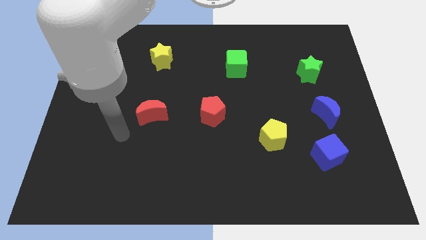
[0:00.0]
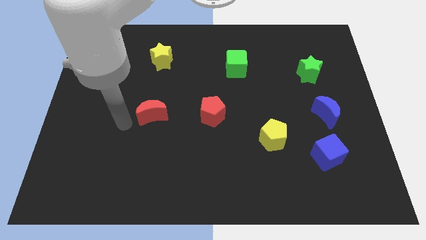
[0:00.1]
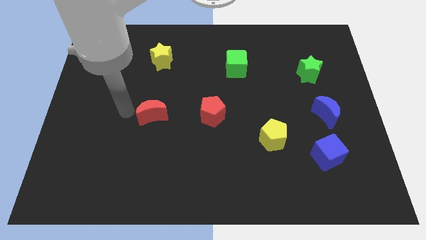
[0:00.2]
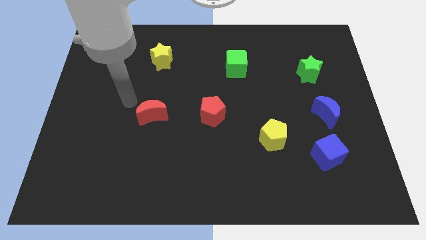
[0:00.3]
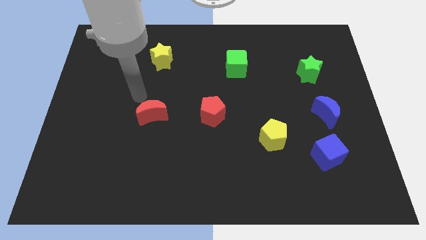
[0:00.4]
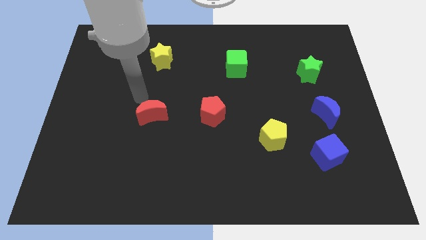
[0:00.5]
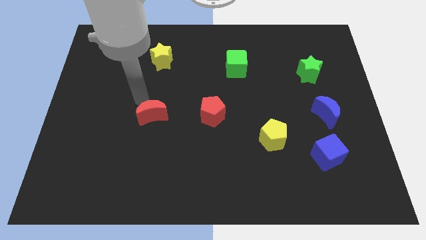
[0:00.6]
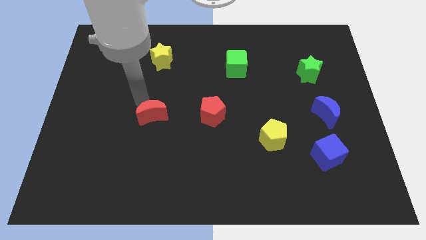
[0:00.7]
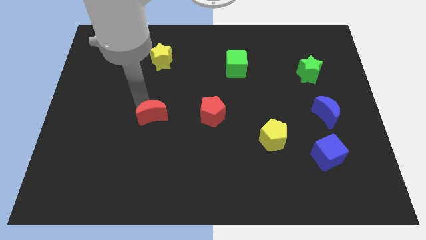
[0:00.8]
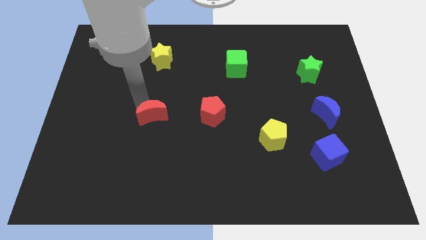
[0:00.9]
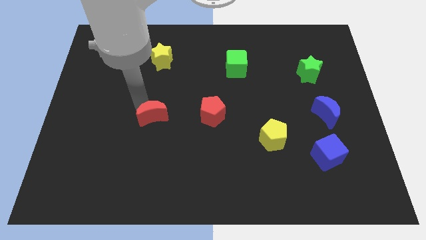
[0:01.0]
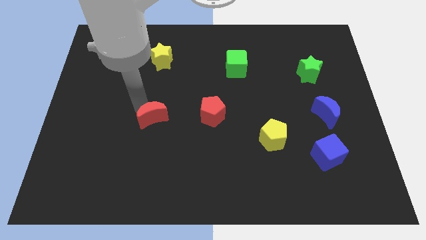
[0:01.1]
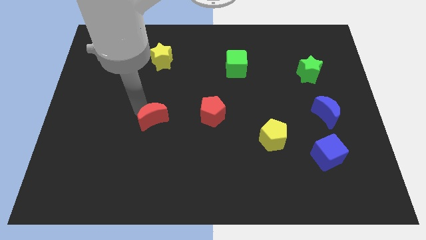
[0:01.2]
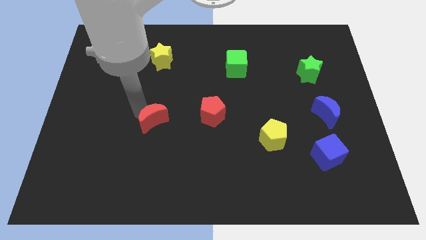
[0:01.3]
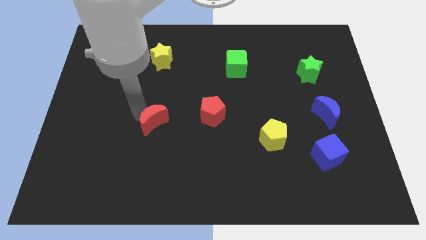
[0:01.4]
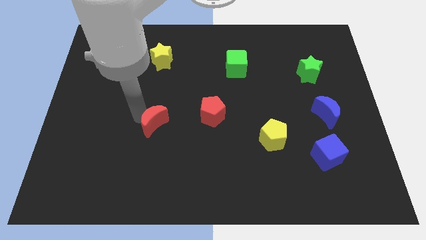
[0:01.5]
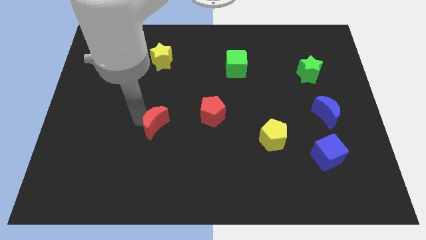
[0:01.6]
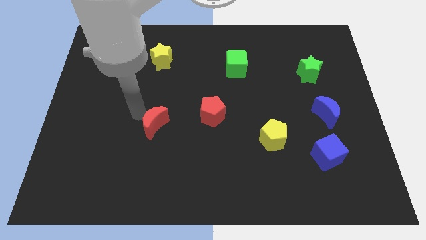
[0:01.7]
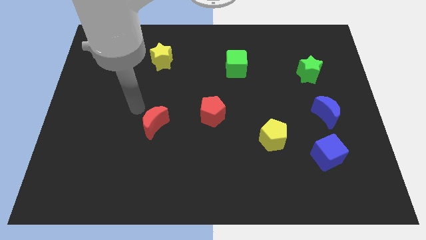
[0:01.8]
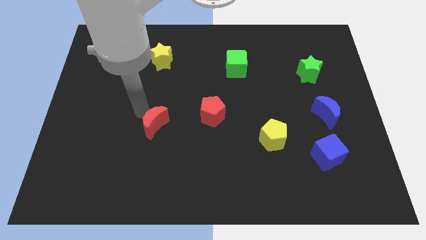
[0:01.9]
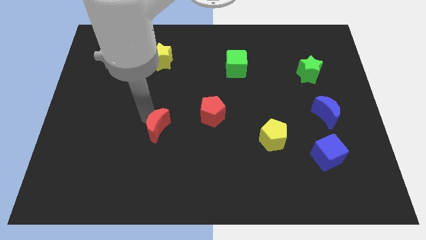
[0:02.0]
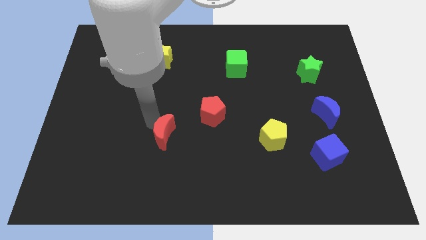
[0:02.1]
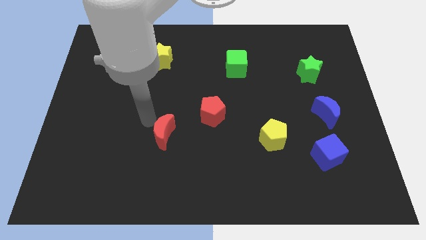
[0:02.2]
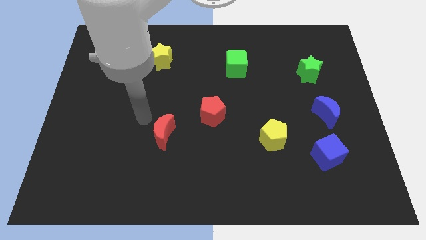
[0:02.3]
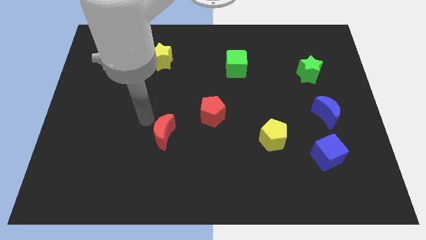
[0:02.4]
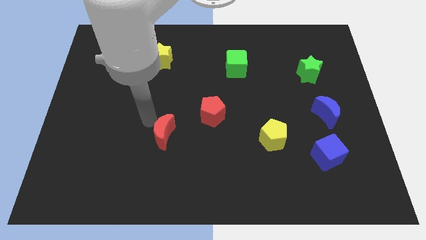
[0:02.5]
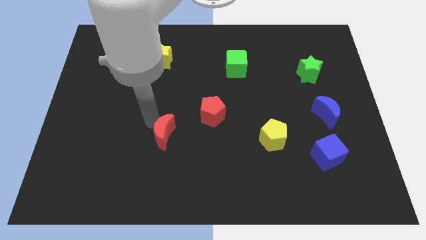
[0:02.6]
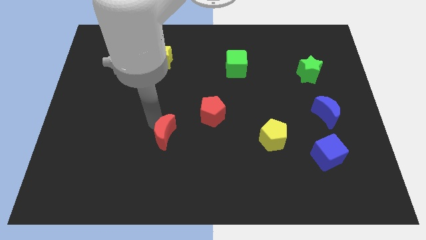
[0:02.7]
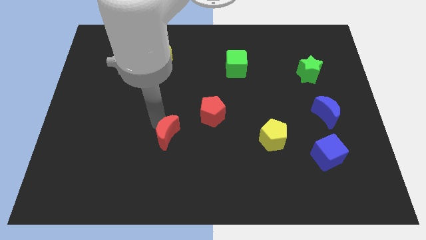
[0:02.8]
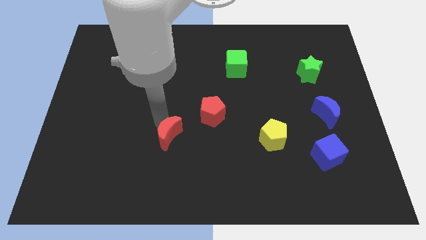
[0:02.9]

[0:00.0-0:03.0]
push the red moon a little bit downwards and then right

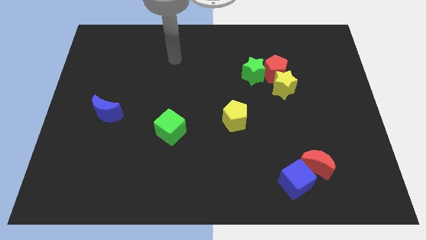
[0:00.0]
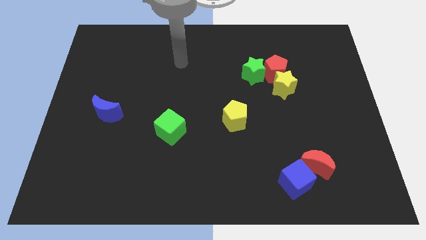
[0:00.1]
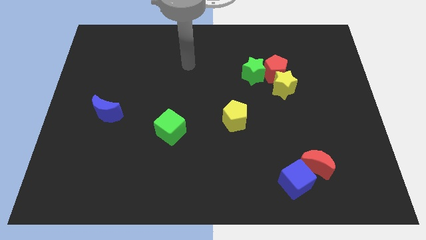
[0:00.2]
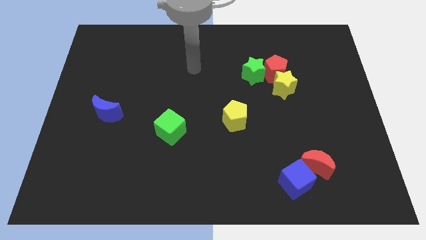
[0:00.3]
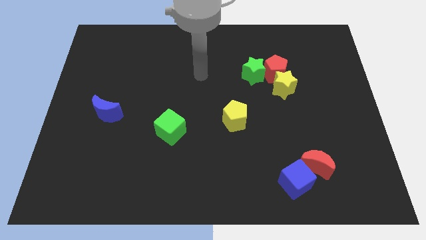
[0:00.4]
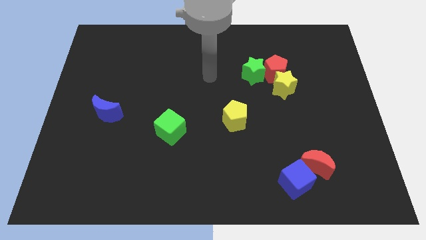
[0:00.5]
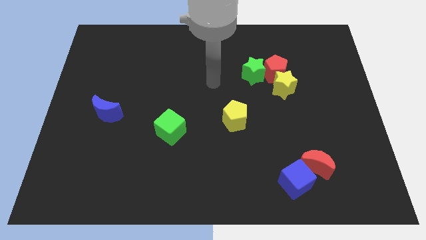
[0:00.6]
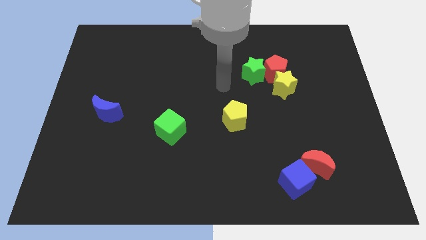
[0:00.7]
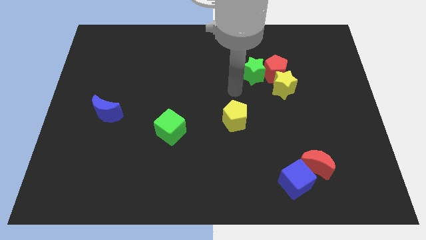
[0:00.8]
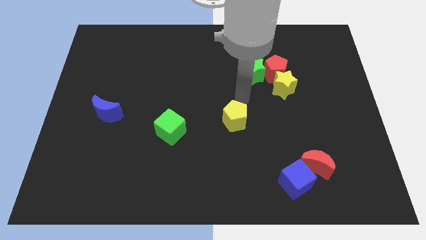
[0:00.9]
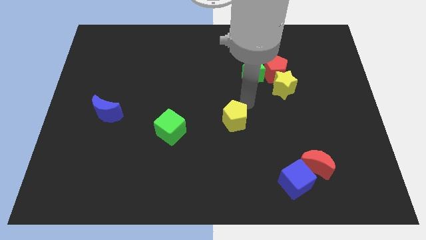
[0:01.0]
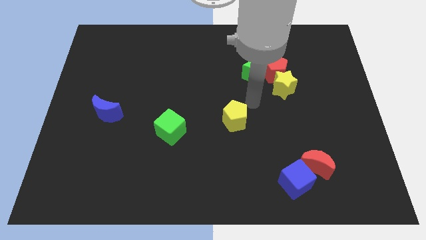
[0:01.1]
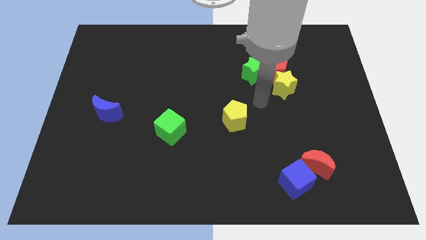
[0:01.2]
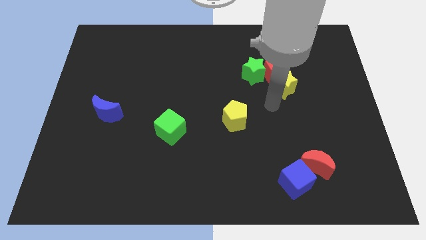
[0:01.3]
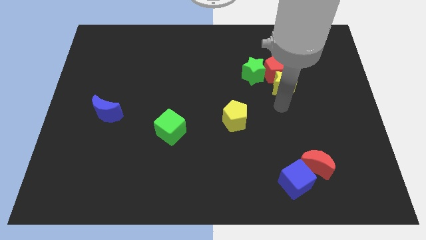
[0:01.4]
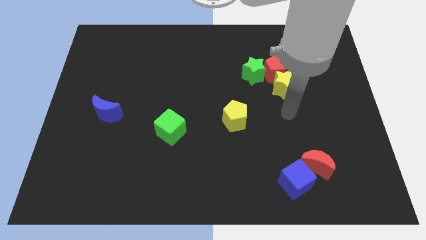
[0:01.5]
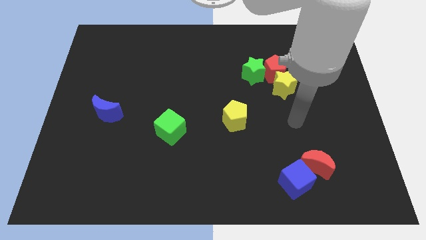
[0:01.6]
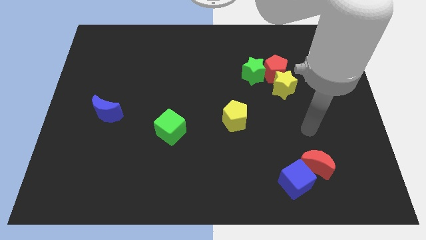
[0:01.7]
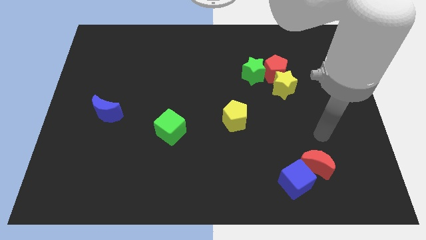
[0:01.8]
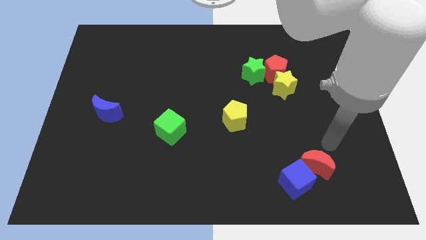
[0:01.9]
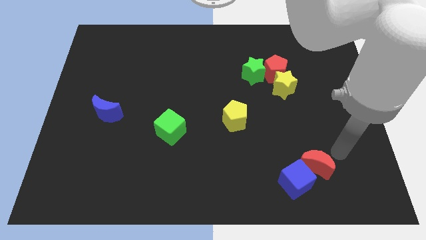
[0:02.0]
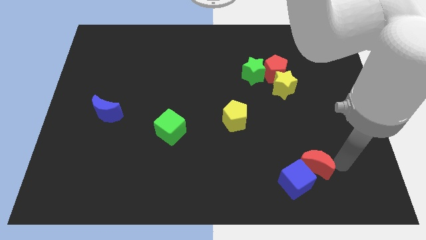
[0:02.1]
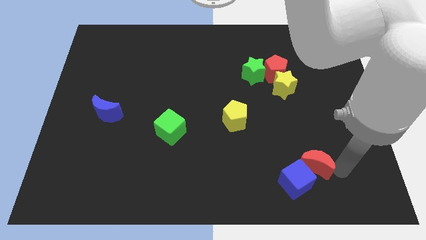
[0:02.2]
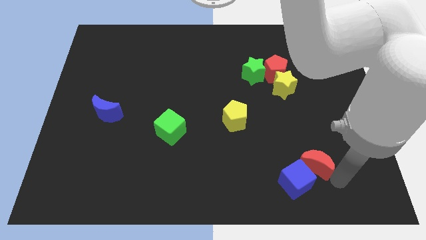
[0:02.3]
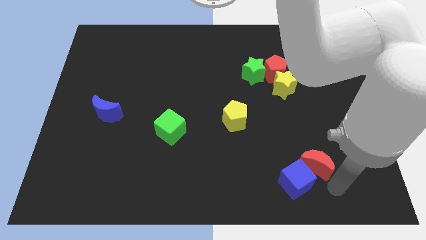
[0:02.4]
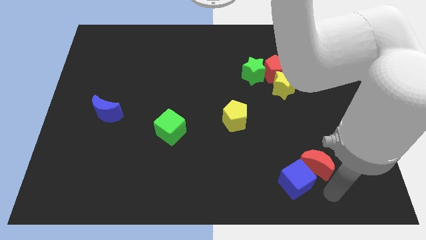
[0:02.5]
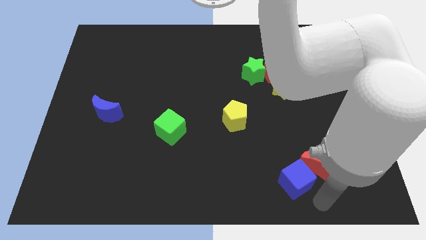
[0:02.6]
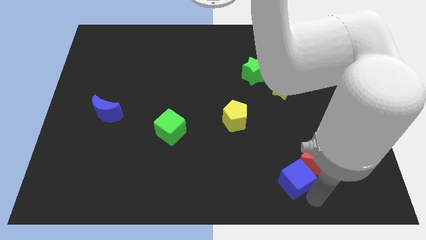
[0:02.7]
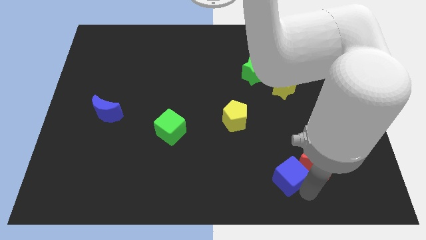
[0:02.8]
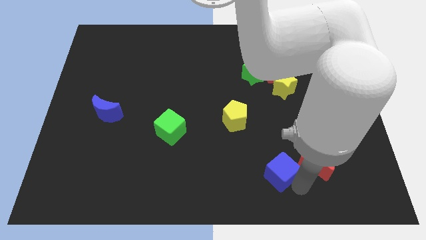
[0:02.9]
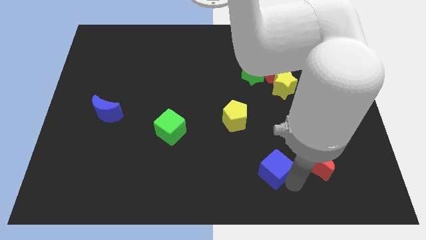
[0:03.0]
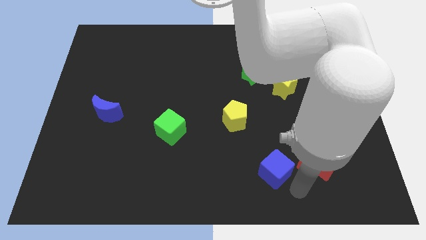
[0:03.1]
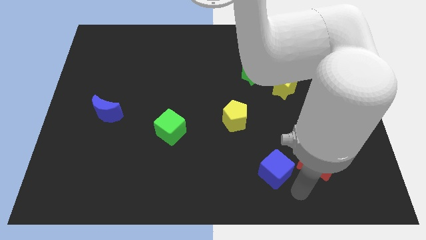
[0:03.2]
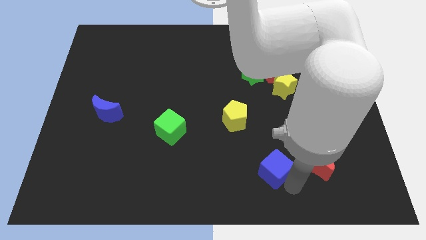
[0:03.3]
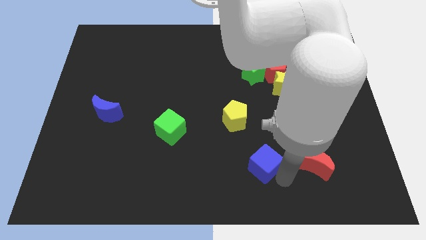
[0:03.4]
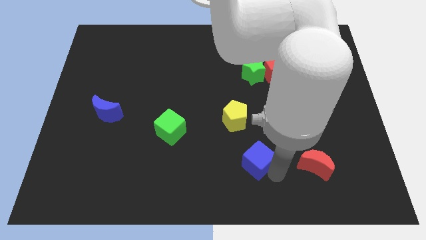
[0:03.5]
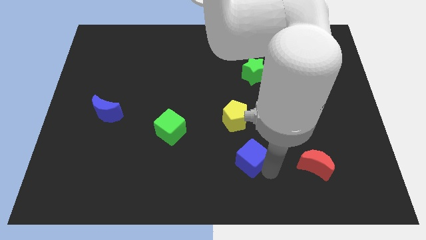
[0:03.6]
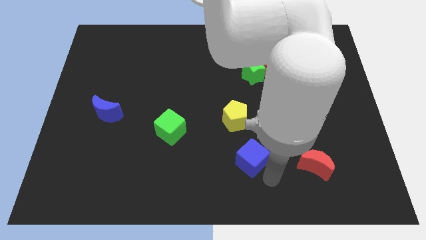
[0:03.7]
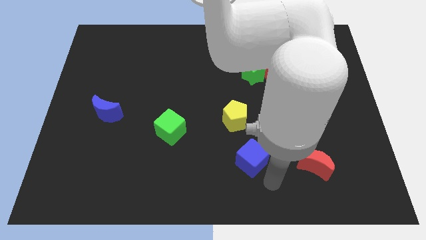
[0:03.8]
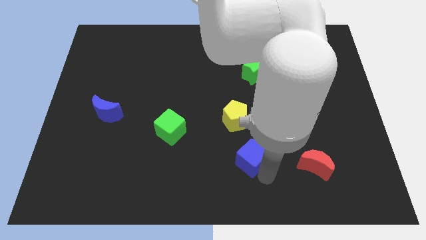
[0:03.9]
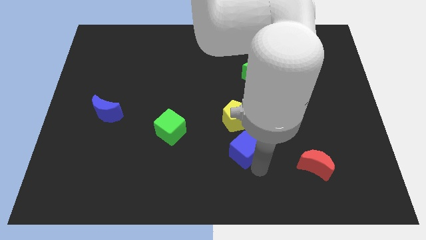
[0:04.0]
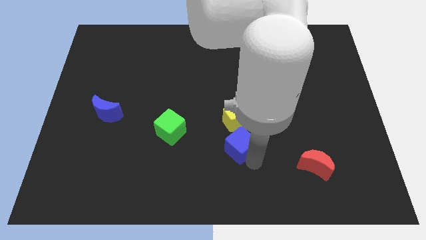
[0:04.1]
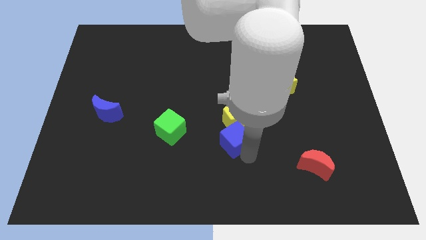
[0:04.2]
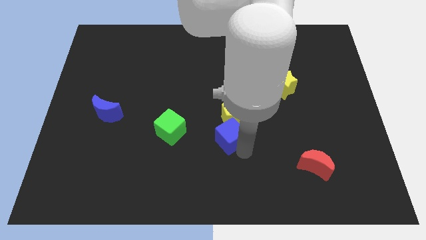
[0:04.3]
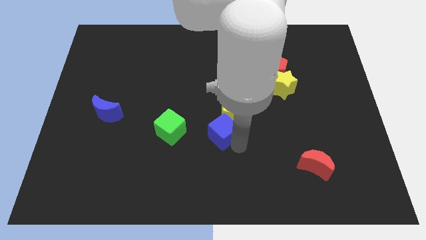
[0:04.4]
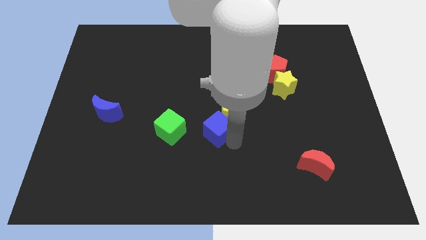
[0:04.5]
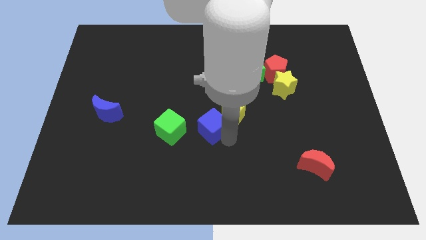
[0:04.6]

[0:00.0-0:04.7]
slide the blue cube up and then to the left

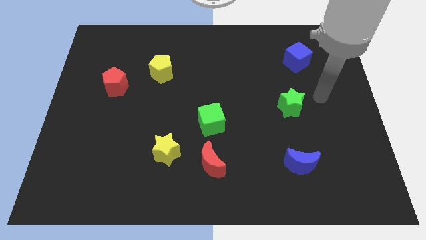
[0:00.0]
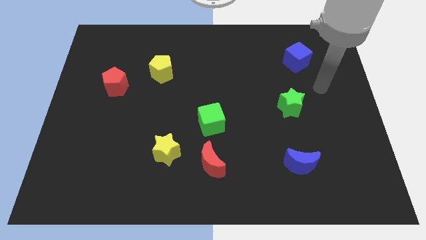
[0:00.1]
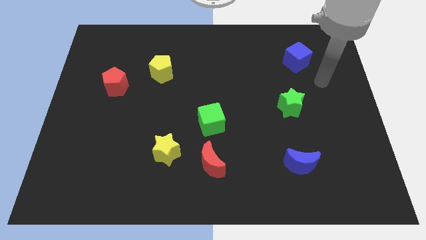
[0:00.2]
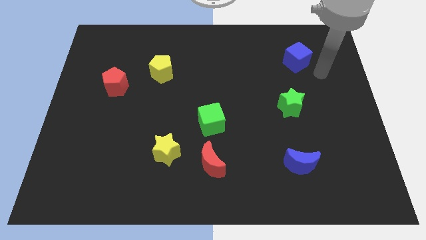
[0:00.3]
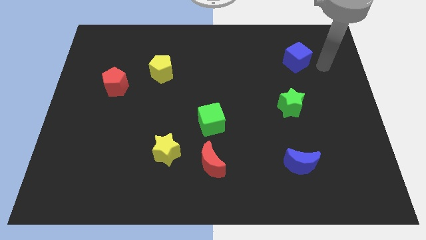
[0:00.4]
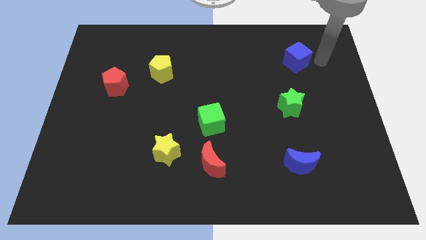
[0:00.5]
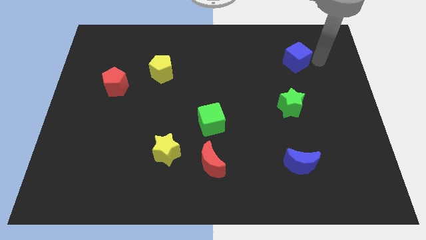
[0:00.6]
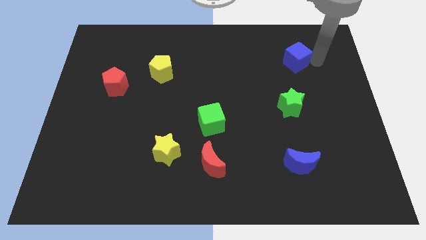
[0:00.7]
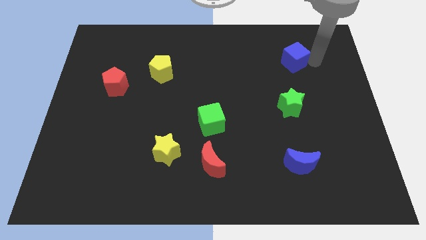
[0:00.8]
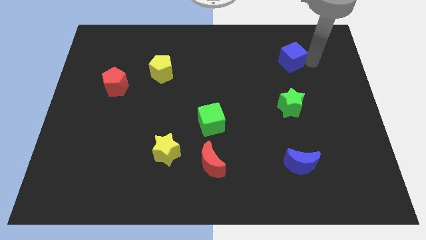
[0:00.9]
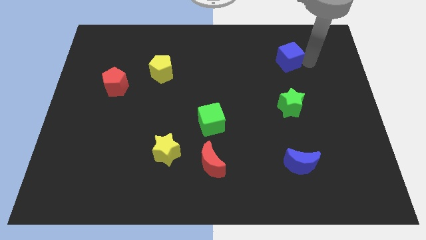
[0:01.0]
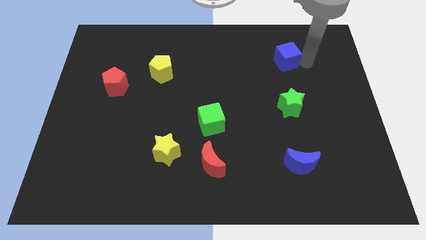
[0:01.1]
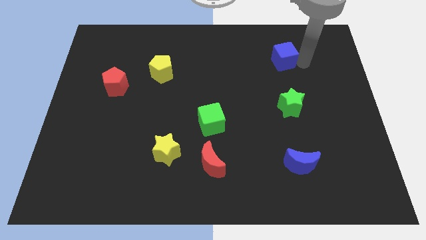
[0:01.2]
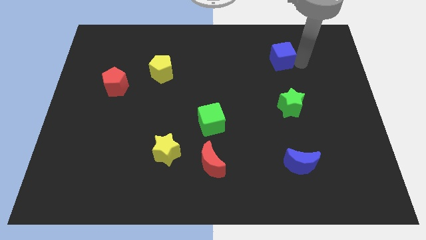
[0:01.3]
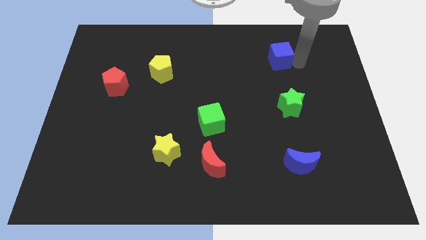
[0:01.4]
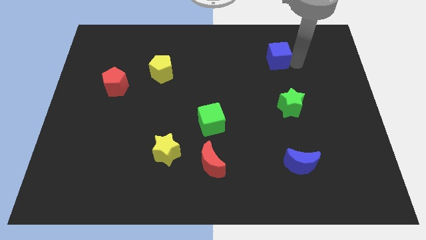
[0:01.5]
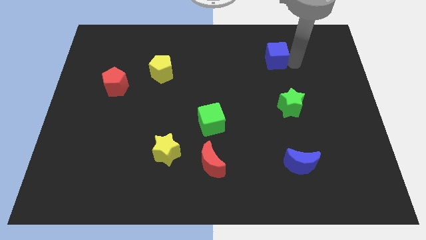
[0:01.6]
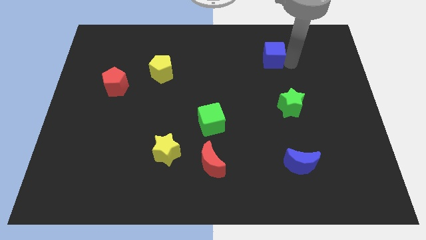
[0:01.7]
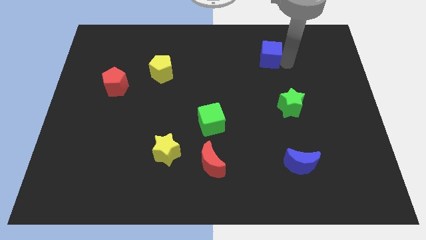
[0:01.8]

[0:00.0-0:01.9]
slightly slide the blue cube left
